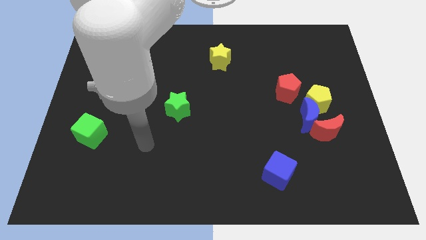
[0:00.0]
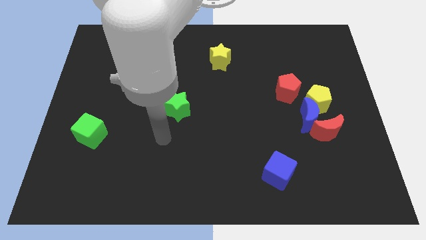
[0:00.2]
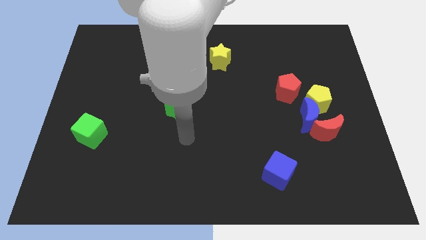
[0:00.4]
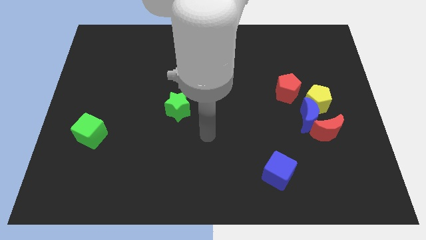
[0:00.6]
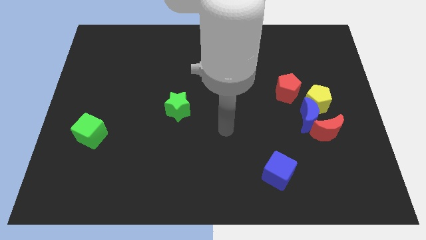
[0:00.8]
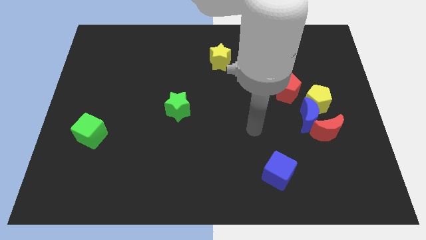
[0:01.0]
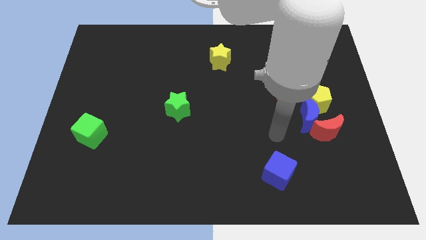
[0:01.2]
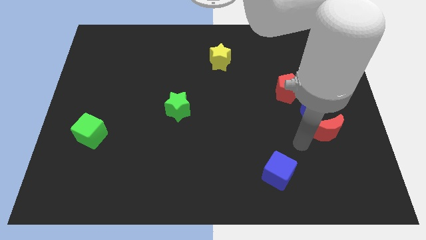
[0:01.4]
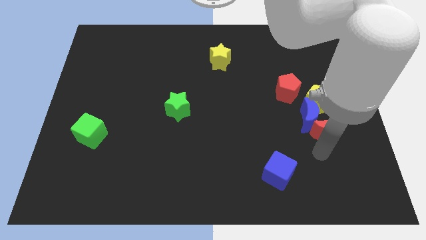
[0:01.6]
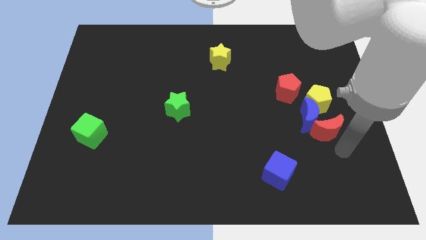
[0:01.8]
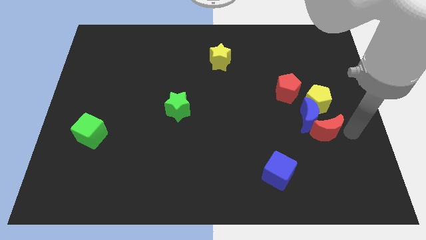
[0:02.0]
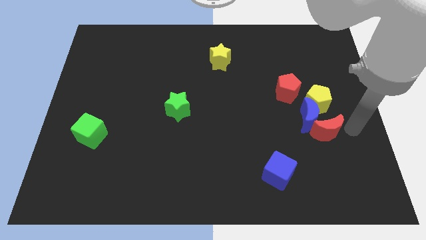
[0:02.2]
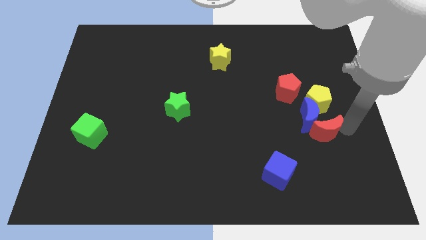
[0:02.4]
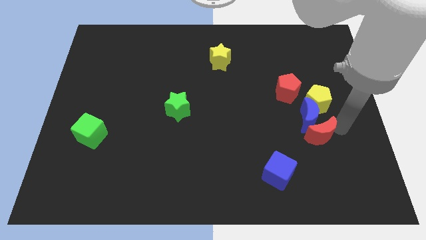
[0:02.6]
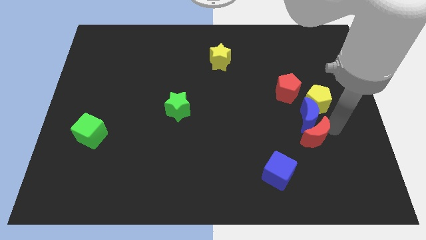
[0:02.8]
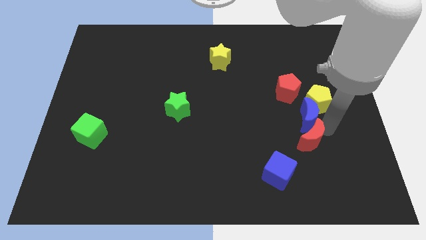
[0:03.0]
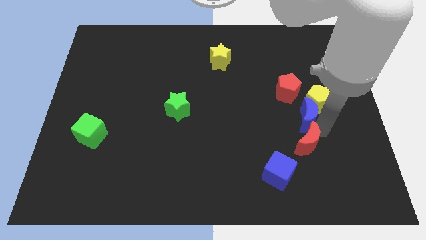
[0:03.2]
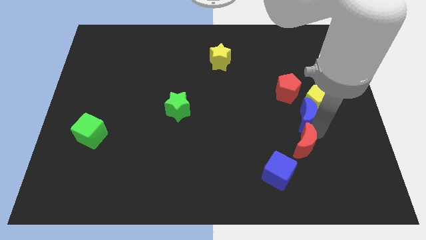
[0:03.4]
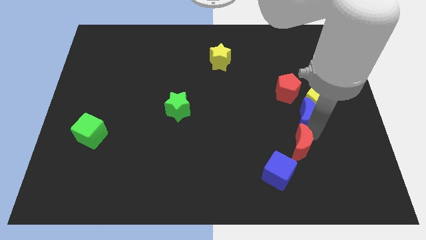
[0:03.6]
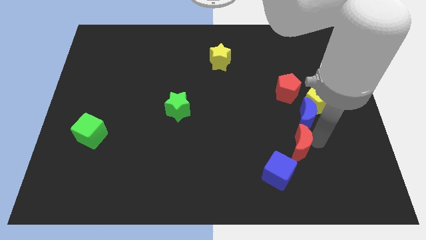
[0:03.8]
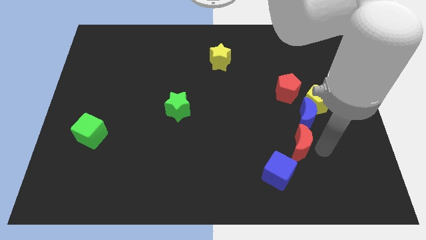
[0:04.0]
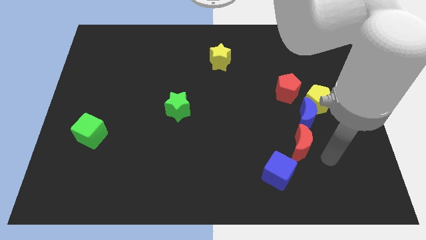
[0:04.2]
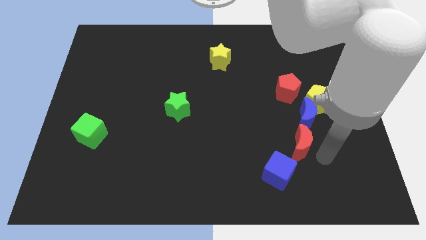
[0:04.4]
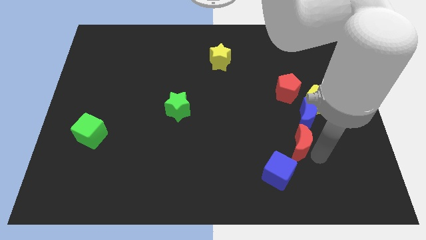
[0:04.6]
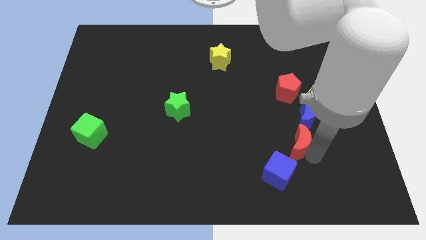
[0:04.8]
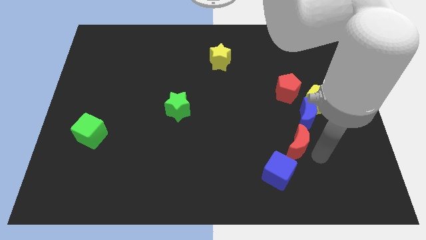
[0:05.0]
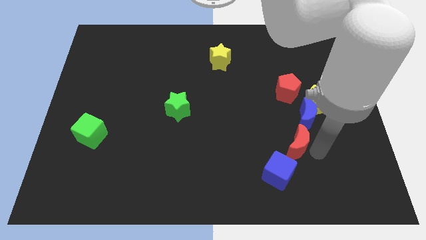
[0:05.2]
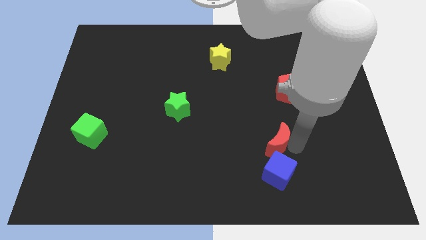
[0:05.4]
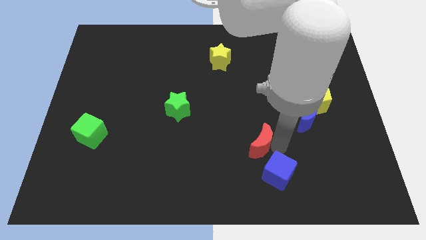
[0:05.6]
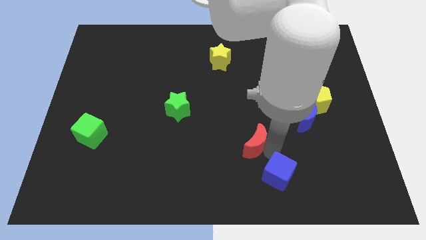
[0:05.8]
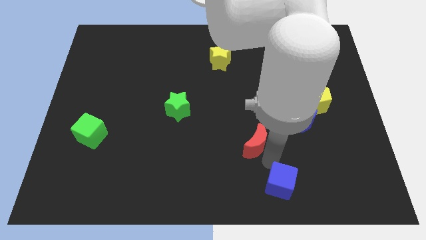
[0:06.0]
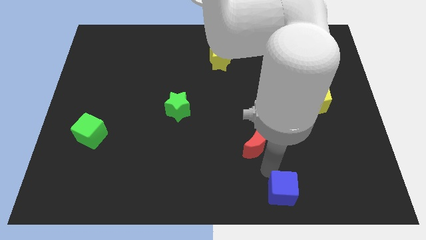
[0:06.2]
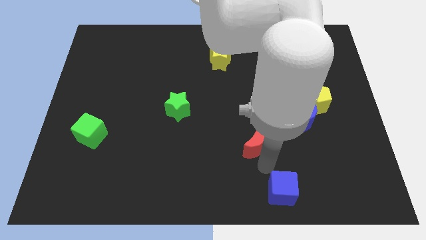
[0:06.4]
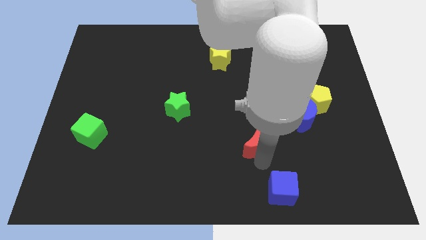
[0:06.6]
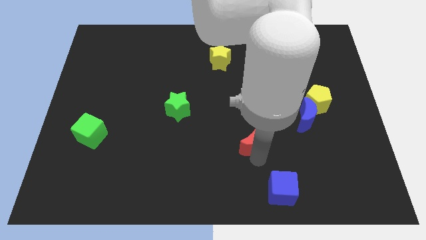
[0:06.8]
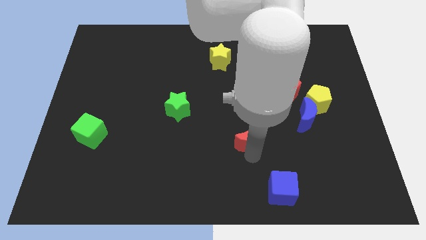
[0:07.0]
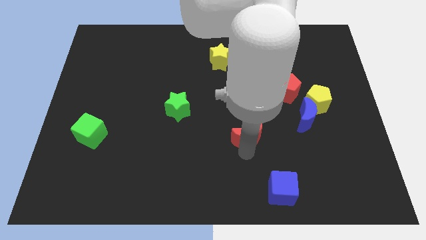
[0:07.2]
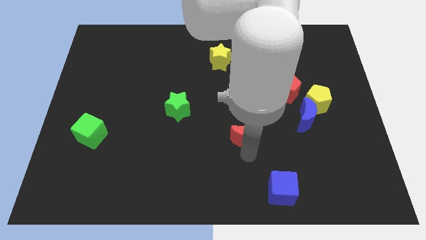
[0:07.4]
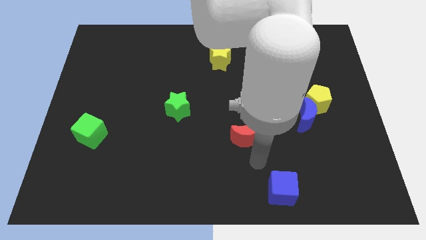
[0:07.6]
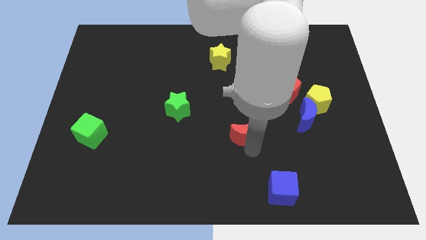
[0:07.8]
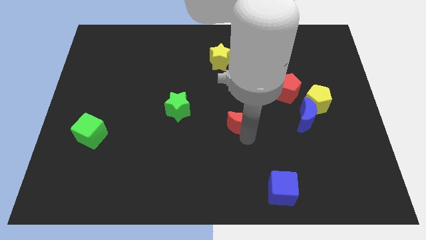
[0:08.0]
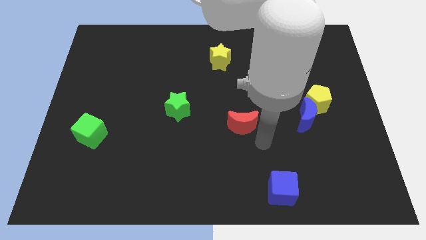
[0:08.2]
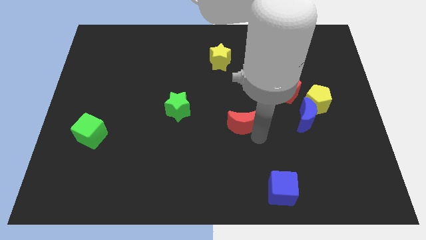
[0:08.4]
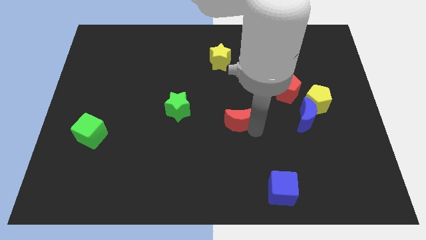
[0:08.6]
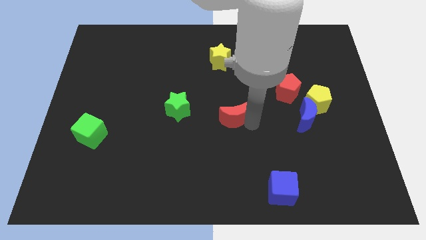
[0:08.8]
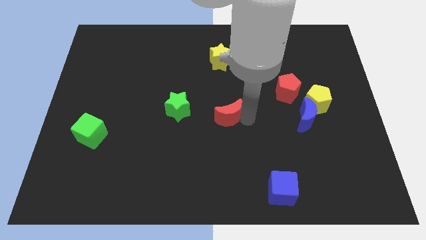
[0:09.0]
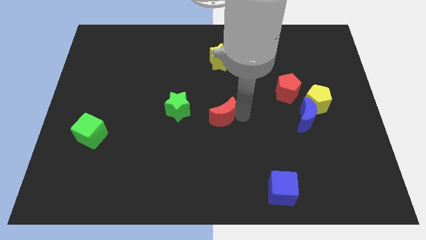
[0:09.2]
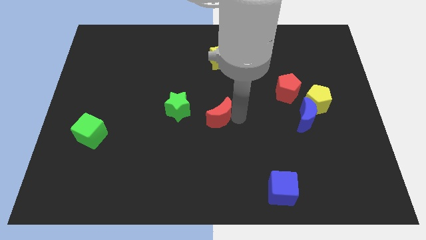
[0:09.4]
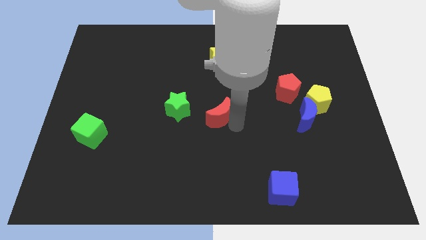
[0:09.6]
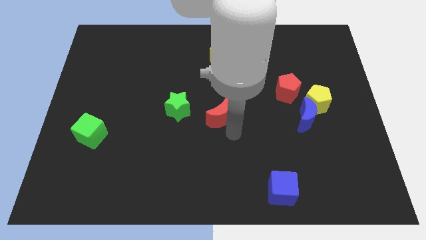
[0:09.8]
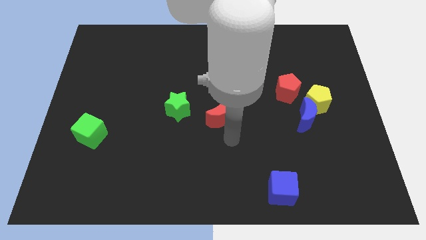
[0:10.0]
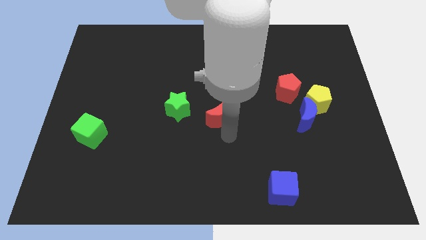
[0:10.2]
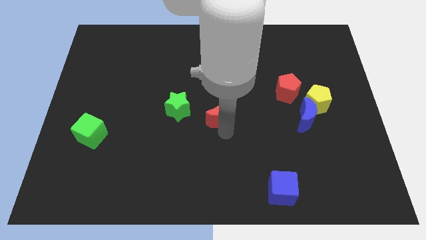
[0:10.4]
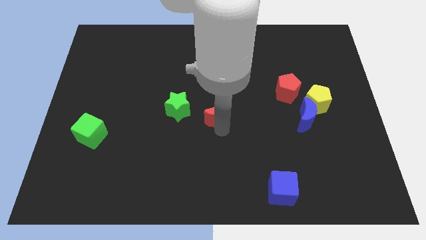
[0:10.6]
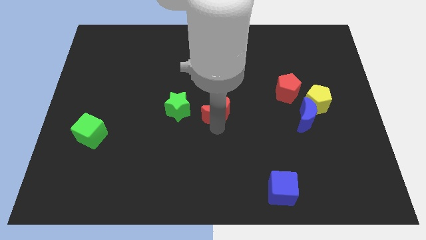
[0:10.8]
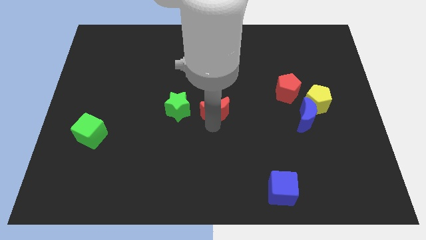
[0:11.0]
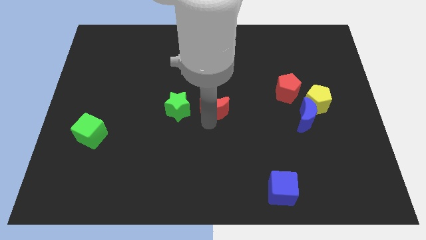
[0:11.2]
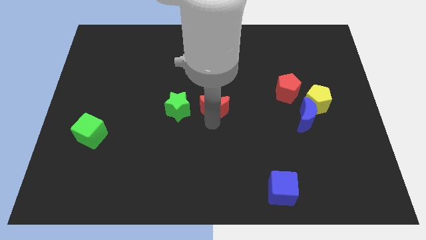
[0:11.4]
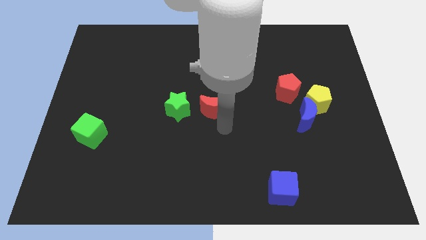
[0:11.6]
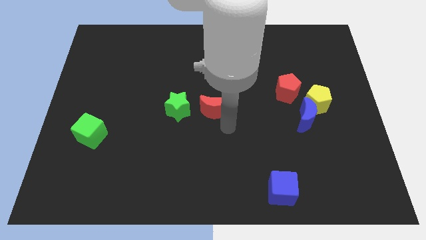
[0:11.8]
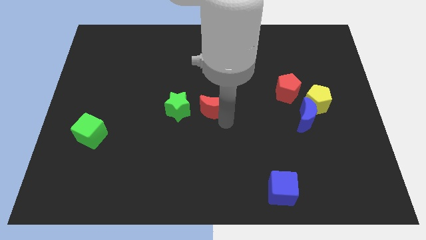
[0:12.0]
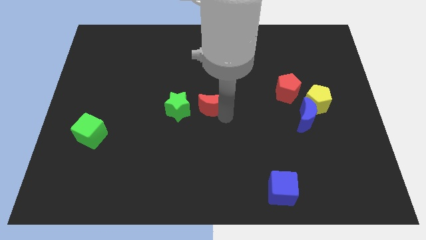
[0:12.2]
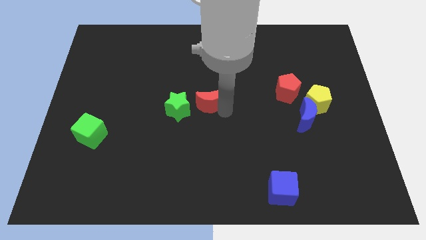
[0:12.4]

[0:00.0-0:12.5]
put the red moon to the top right of the green star

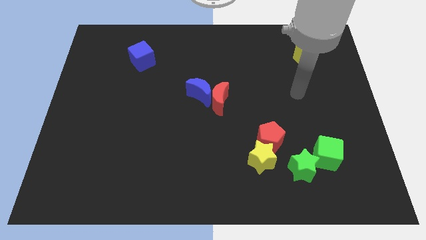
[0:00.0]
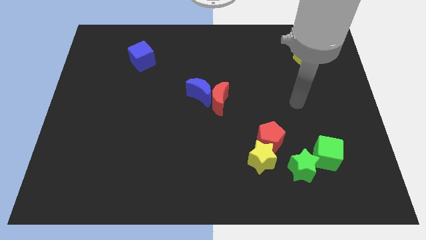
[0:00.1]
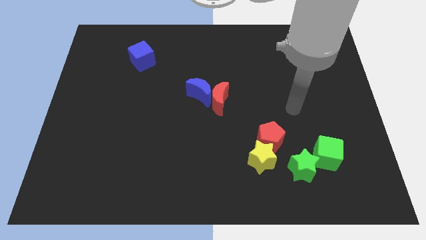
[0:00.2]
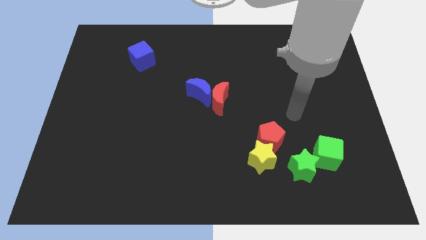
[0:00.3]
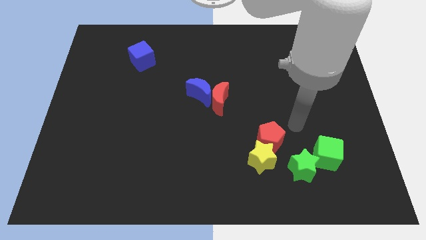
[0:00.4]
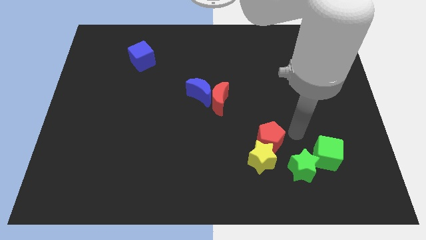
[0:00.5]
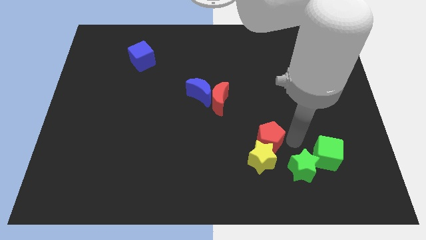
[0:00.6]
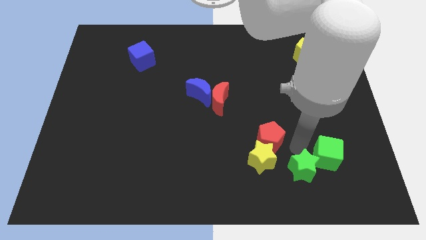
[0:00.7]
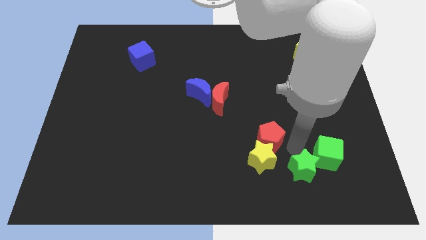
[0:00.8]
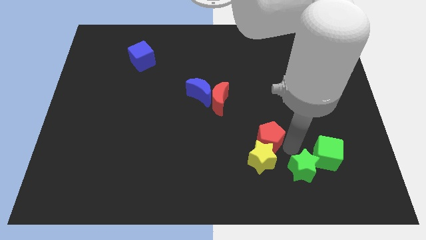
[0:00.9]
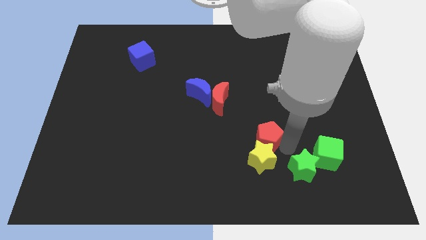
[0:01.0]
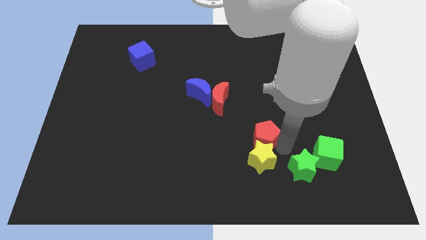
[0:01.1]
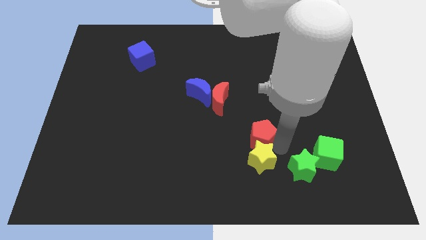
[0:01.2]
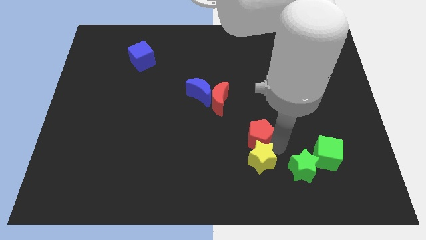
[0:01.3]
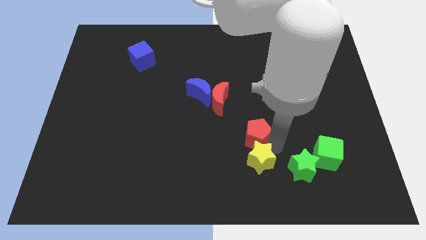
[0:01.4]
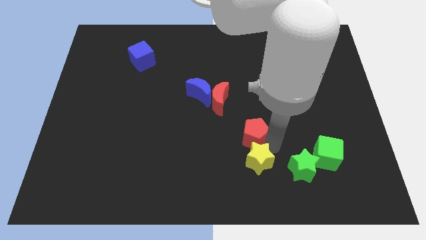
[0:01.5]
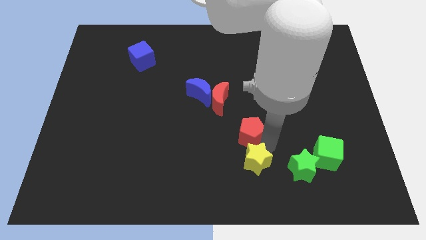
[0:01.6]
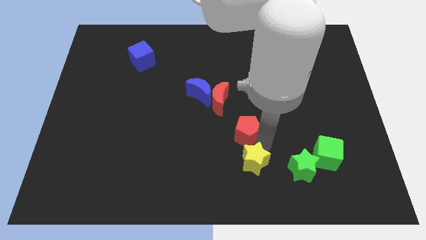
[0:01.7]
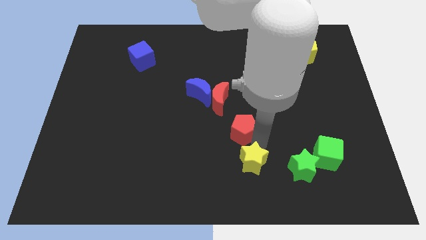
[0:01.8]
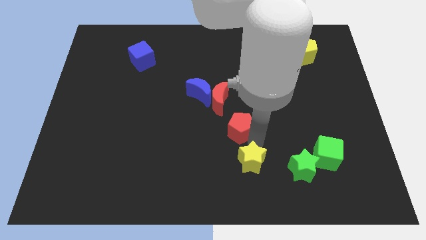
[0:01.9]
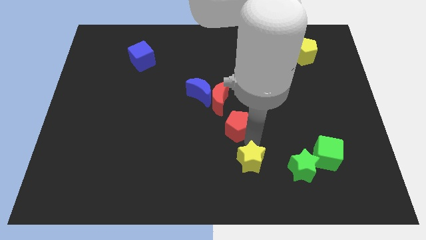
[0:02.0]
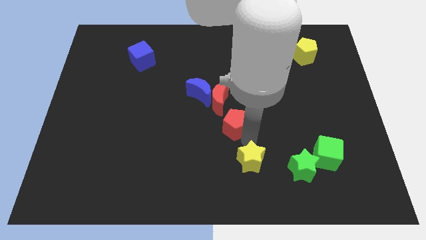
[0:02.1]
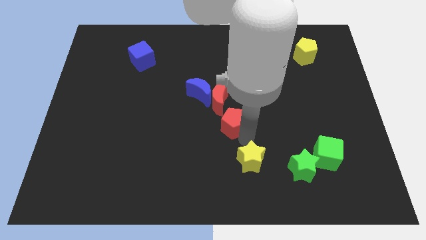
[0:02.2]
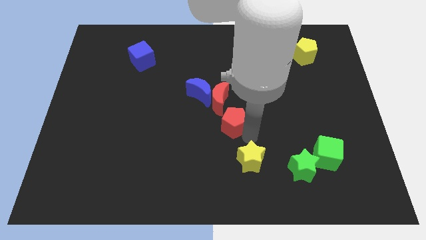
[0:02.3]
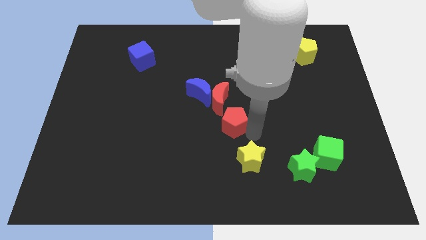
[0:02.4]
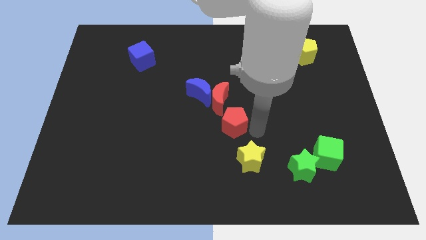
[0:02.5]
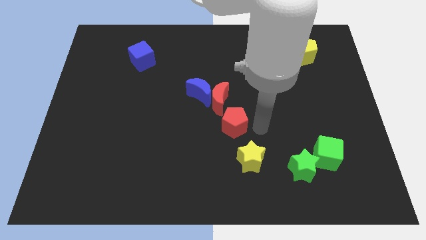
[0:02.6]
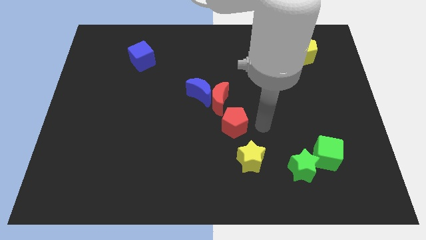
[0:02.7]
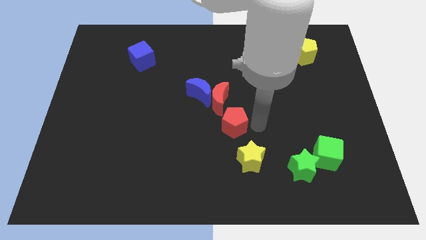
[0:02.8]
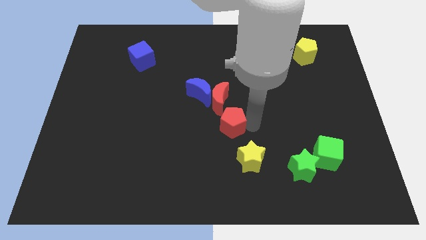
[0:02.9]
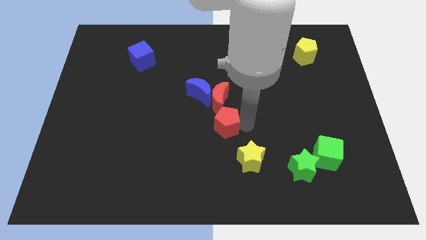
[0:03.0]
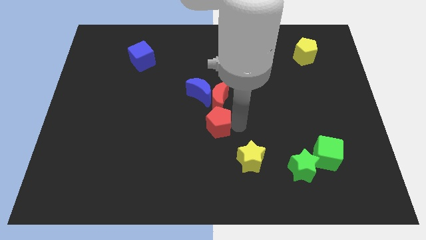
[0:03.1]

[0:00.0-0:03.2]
put the red pentagon diagonally down and to the left of the red moon
